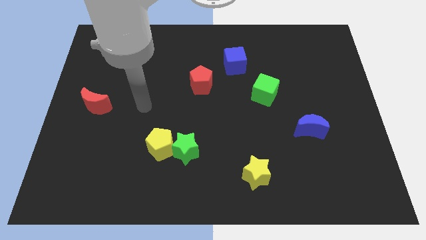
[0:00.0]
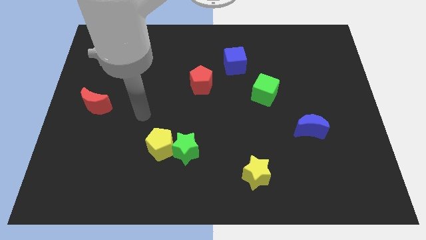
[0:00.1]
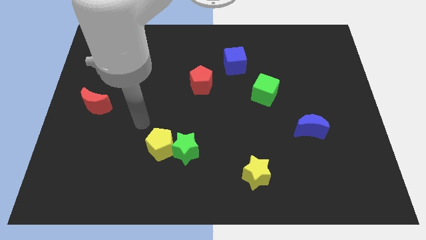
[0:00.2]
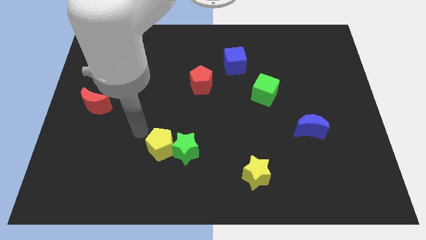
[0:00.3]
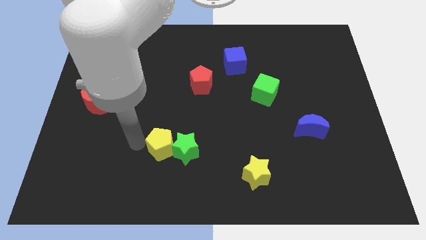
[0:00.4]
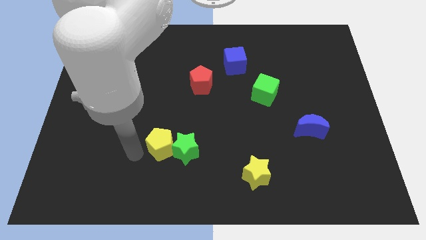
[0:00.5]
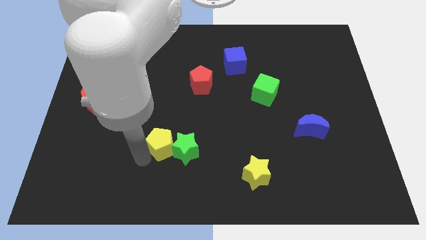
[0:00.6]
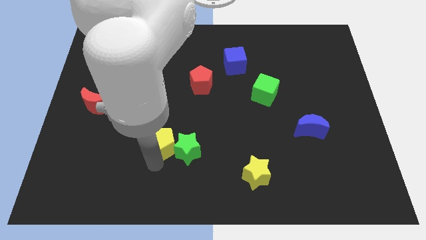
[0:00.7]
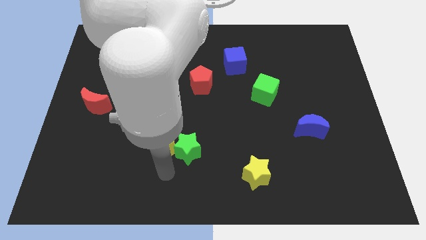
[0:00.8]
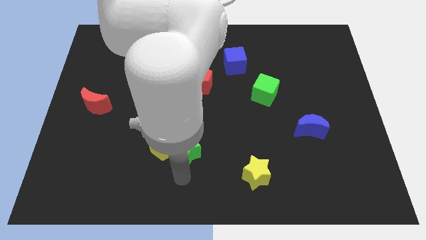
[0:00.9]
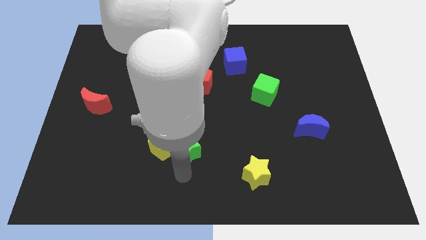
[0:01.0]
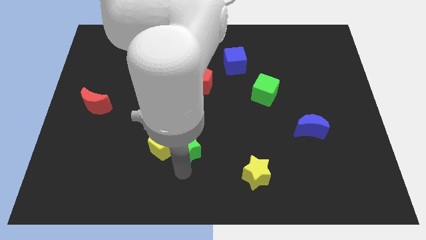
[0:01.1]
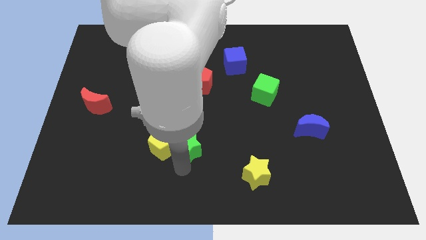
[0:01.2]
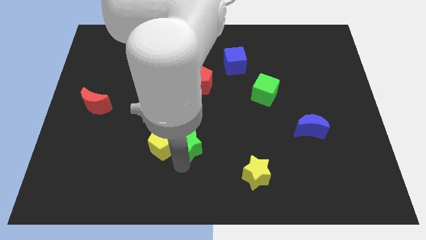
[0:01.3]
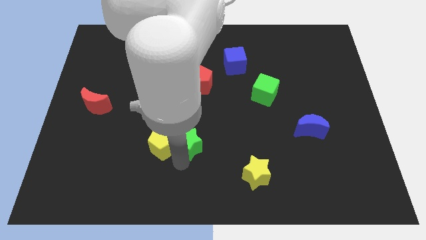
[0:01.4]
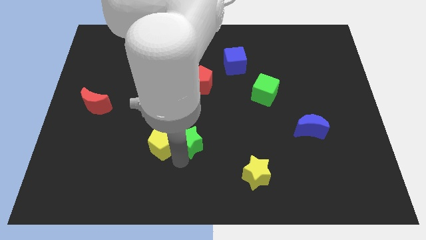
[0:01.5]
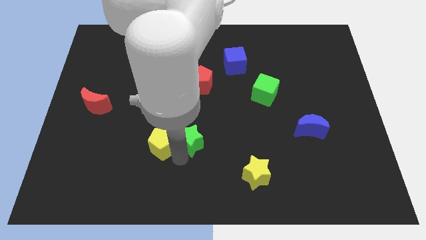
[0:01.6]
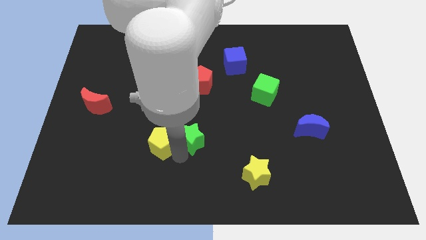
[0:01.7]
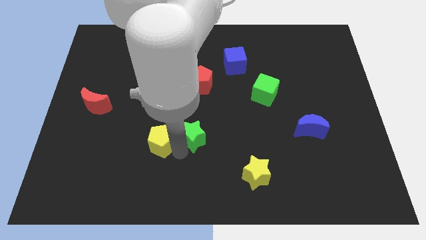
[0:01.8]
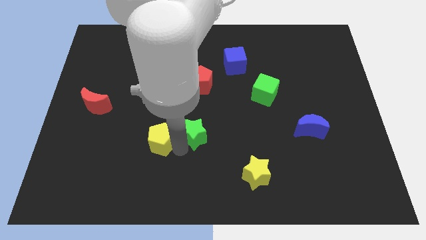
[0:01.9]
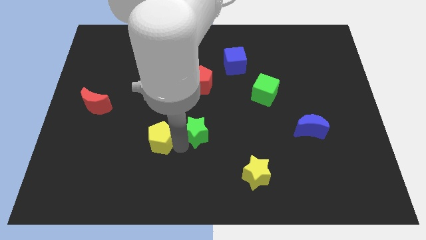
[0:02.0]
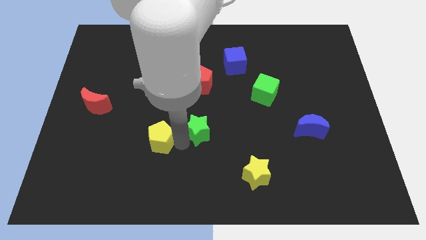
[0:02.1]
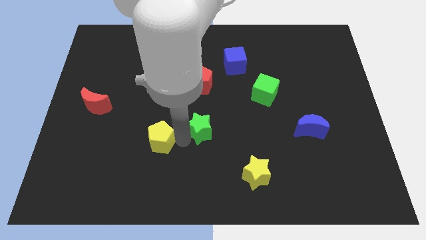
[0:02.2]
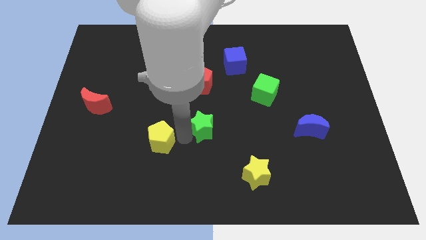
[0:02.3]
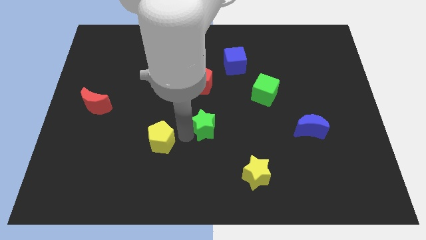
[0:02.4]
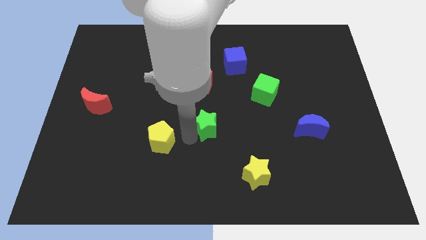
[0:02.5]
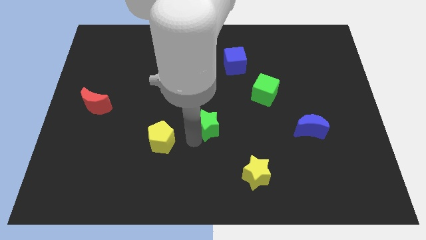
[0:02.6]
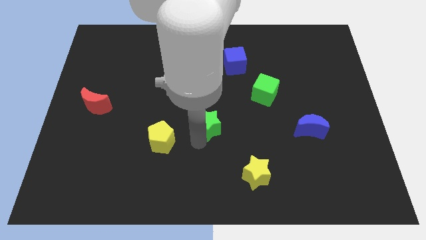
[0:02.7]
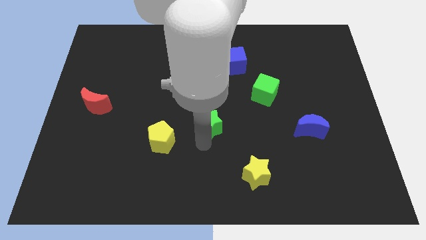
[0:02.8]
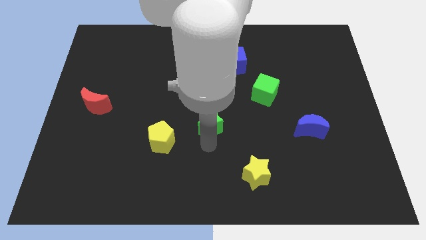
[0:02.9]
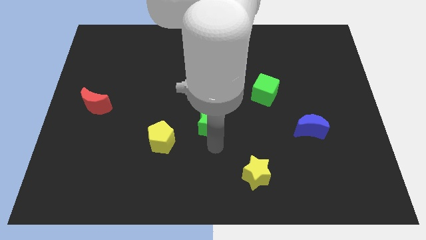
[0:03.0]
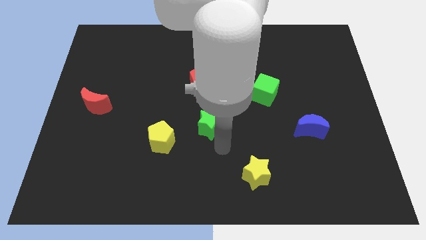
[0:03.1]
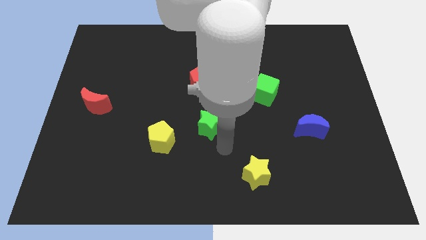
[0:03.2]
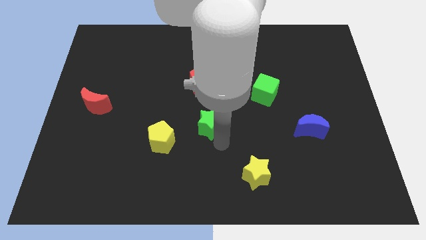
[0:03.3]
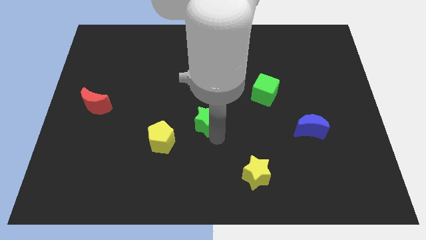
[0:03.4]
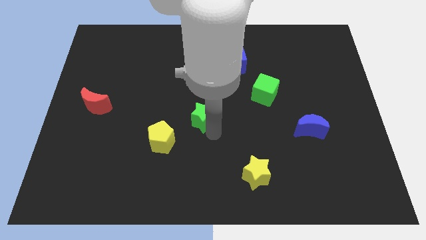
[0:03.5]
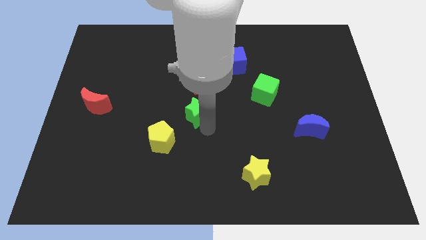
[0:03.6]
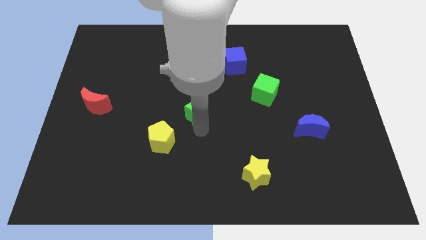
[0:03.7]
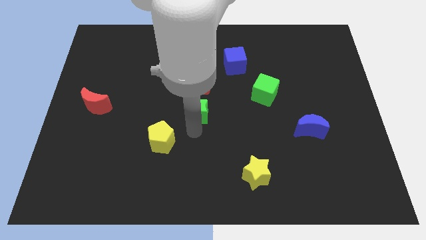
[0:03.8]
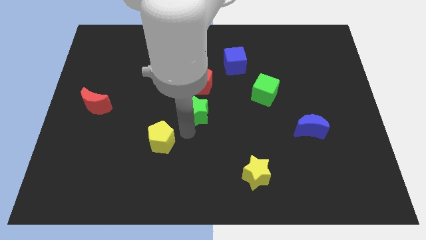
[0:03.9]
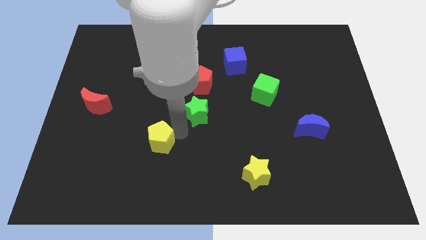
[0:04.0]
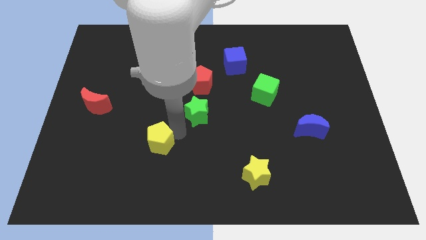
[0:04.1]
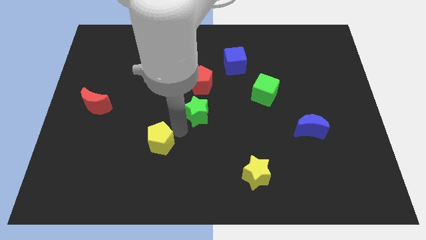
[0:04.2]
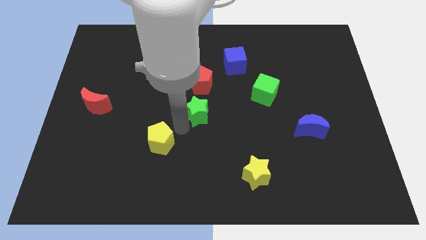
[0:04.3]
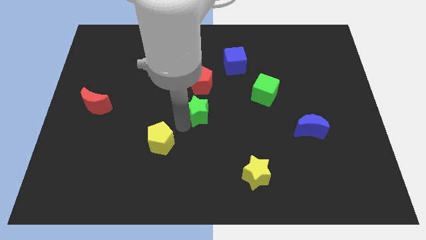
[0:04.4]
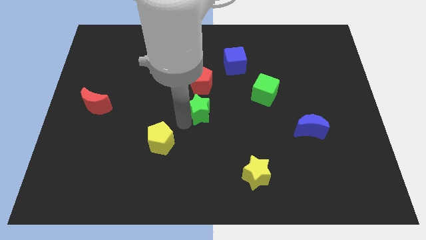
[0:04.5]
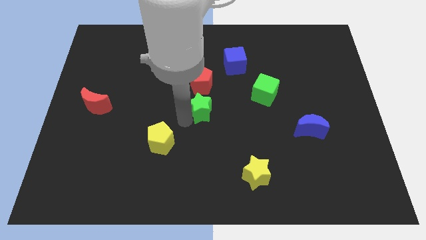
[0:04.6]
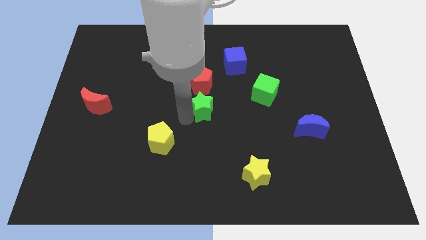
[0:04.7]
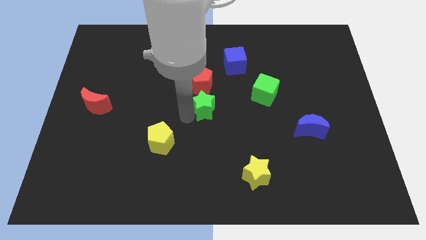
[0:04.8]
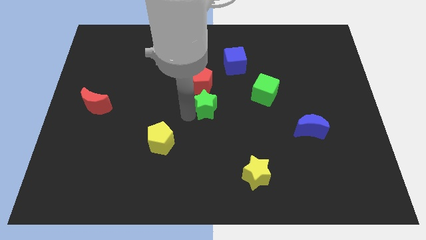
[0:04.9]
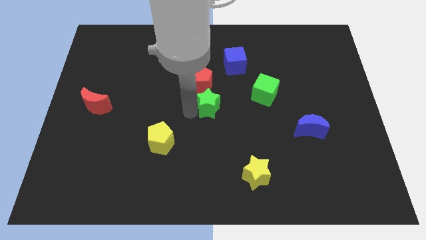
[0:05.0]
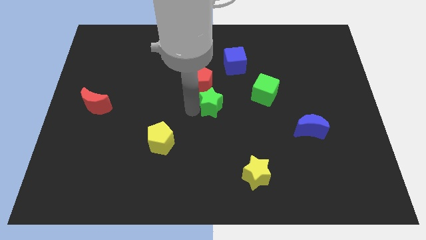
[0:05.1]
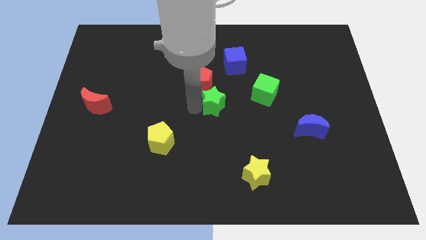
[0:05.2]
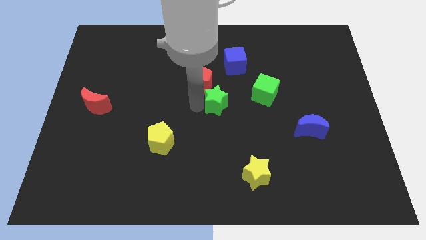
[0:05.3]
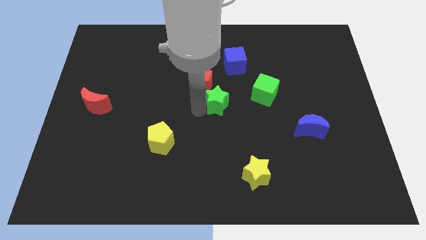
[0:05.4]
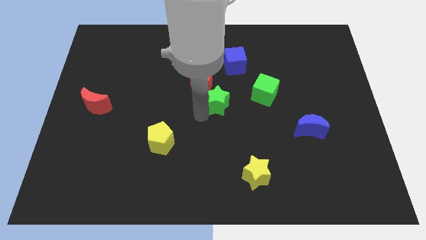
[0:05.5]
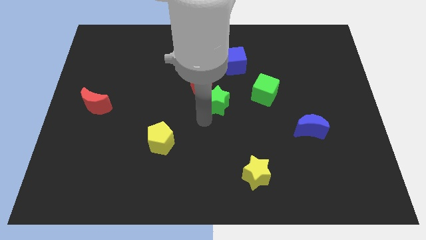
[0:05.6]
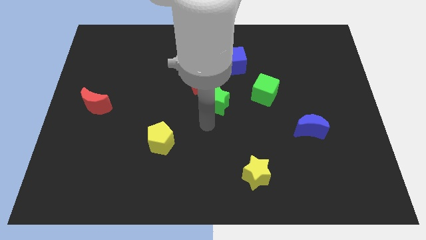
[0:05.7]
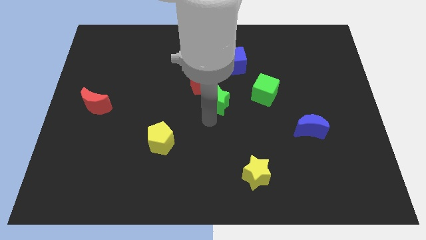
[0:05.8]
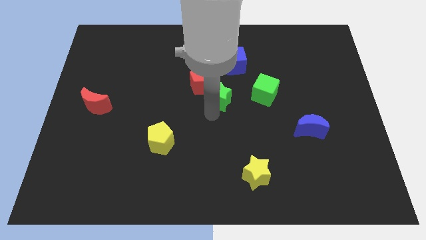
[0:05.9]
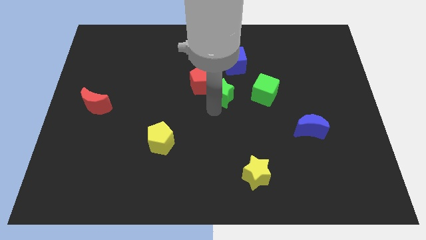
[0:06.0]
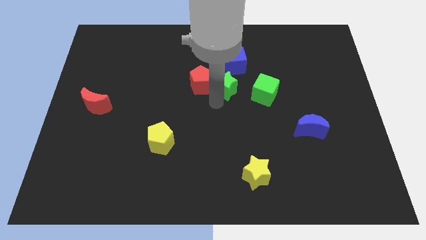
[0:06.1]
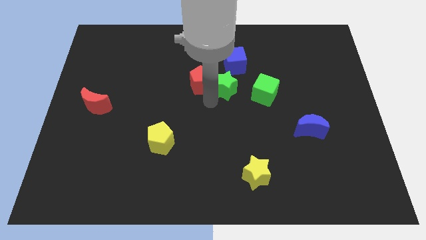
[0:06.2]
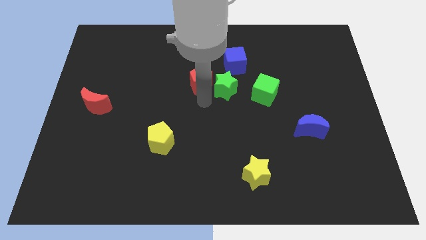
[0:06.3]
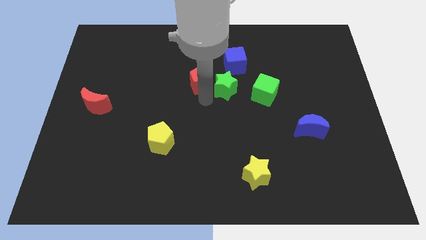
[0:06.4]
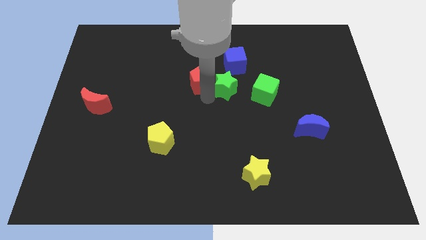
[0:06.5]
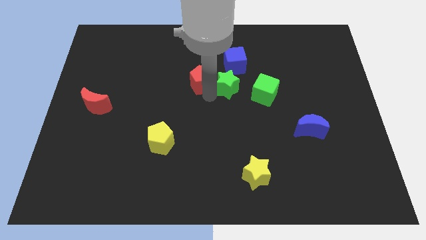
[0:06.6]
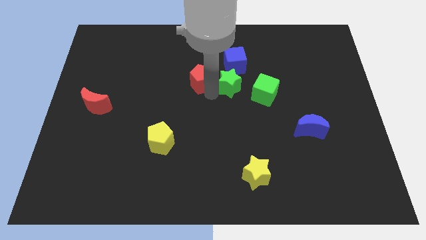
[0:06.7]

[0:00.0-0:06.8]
push the green star to the top left side of the green cube

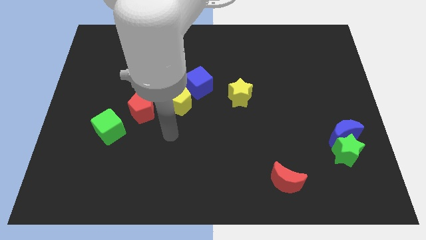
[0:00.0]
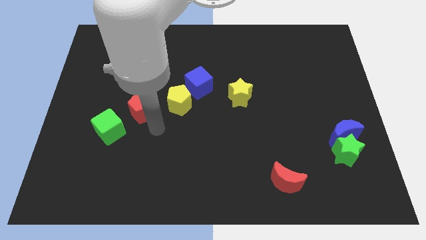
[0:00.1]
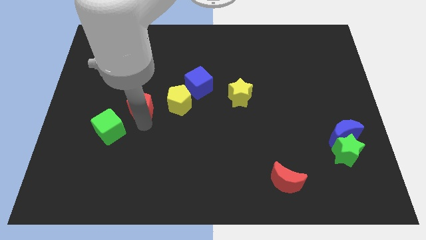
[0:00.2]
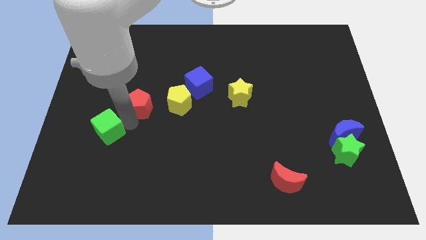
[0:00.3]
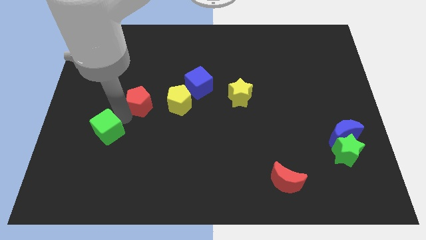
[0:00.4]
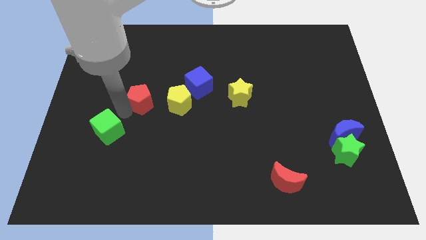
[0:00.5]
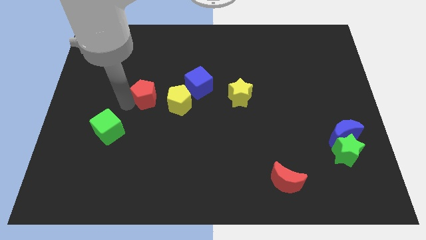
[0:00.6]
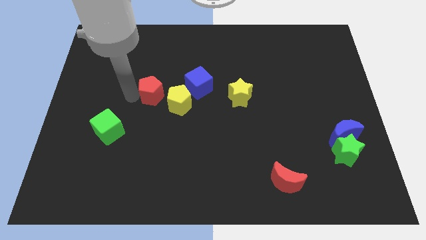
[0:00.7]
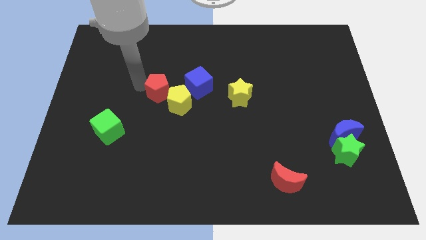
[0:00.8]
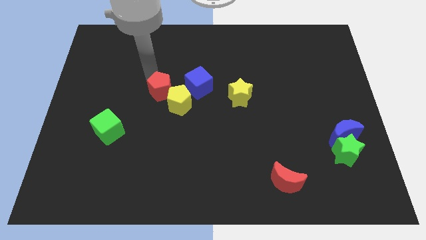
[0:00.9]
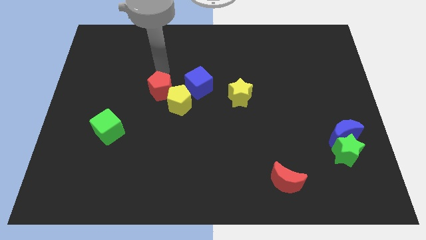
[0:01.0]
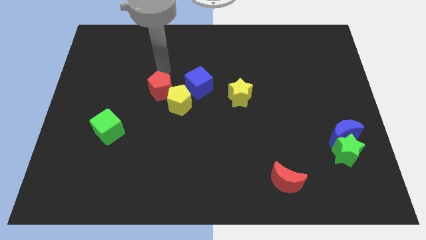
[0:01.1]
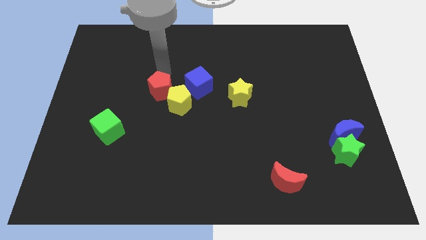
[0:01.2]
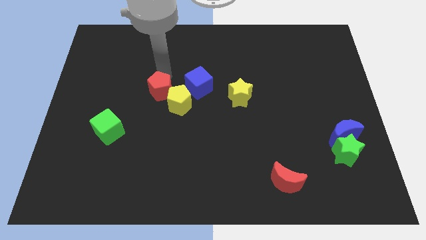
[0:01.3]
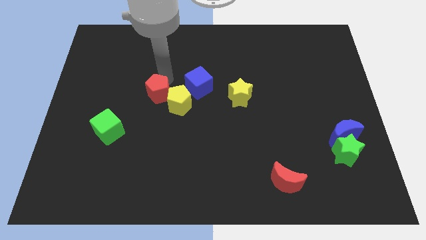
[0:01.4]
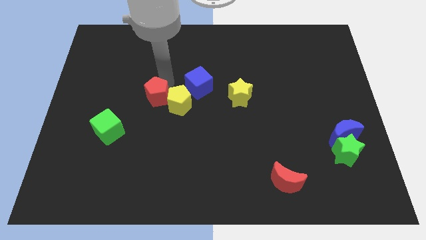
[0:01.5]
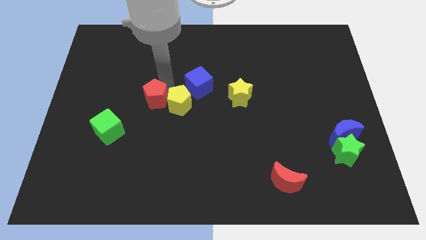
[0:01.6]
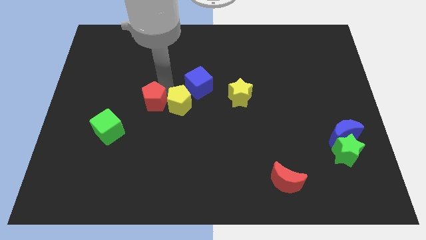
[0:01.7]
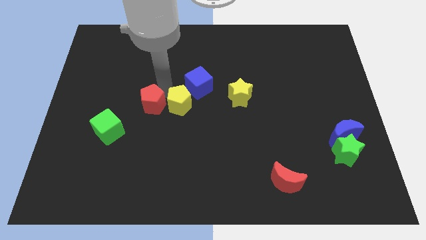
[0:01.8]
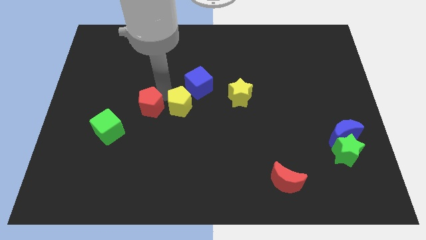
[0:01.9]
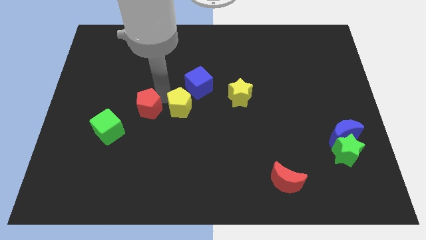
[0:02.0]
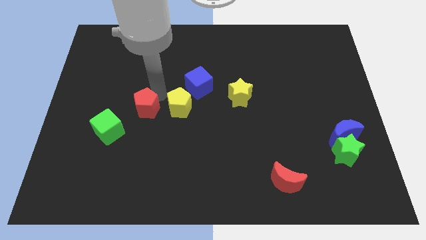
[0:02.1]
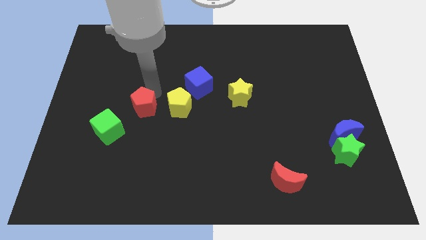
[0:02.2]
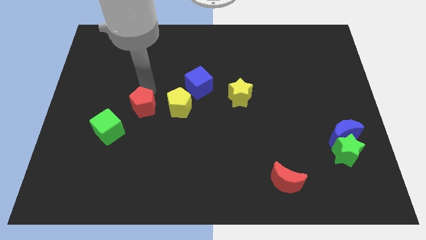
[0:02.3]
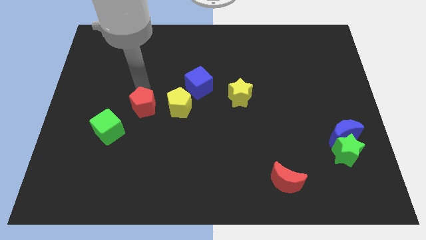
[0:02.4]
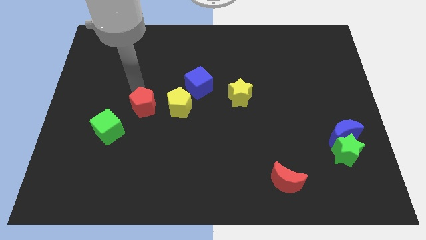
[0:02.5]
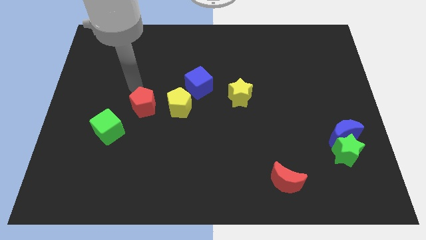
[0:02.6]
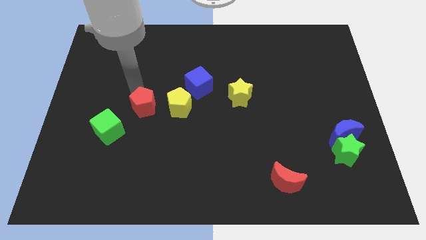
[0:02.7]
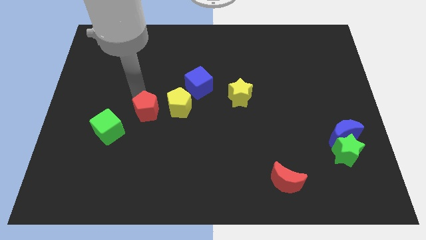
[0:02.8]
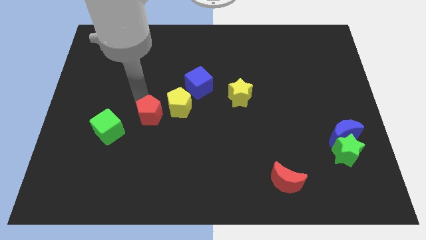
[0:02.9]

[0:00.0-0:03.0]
slide the red pentagon just right of the green cube
